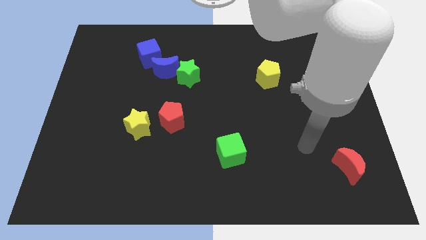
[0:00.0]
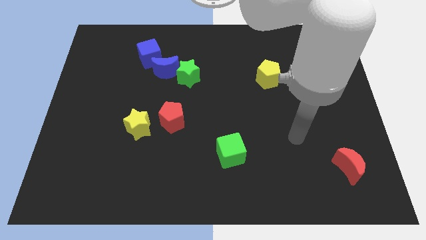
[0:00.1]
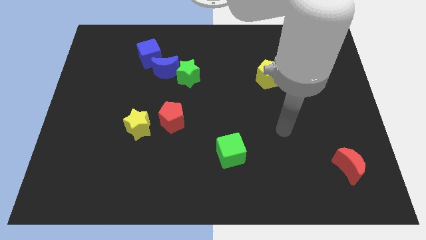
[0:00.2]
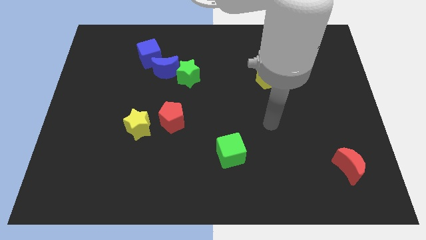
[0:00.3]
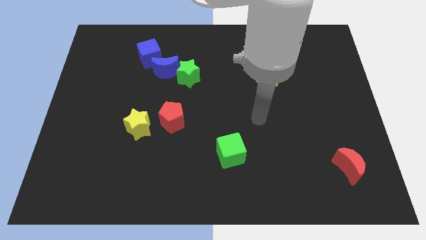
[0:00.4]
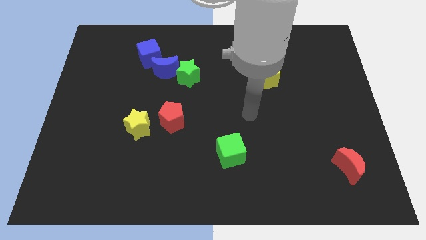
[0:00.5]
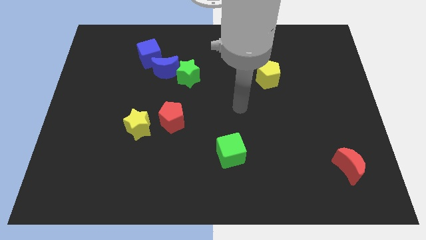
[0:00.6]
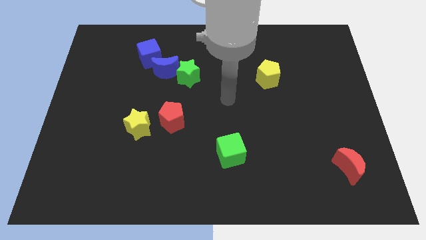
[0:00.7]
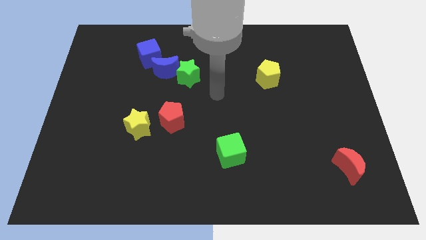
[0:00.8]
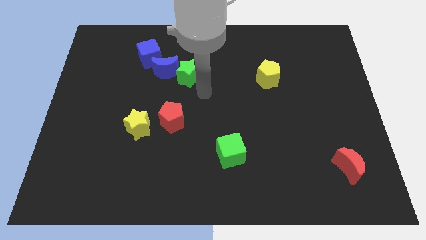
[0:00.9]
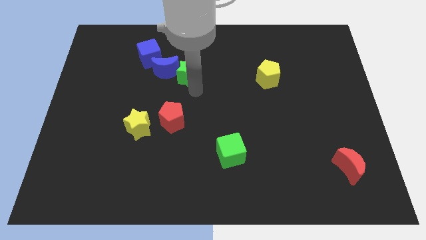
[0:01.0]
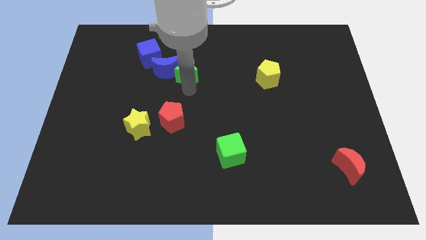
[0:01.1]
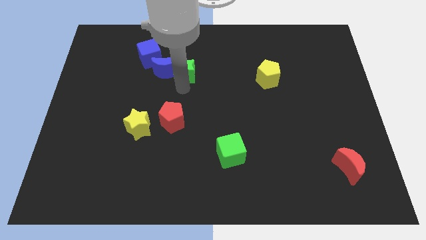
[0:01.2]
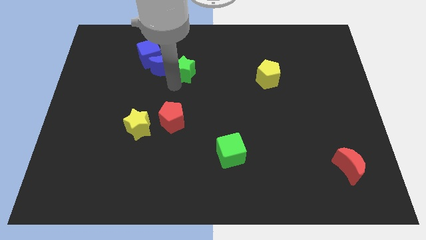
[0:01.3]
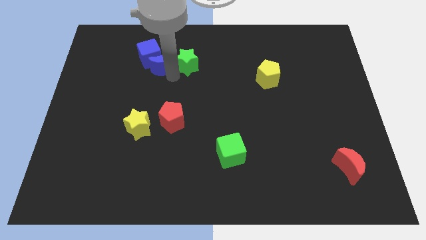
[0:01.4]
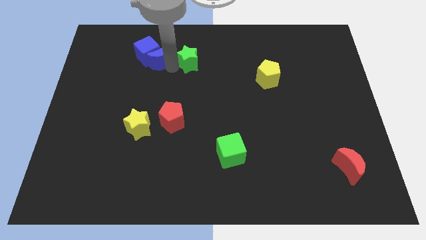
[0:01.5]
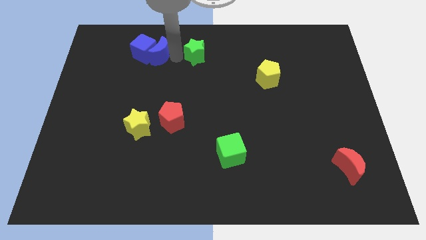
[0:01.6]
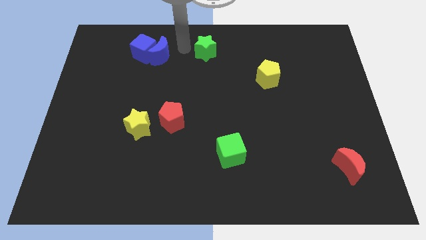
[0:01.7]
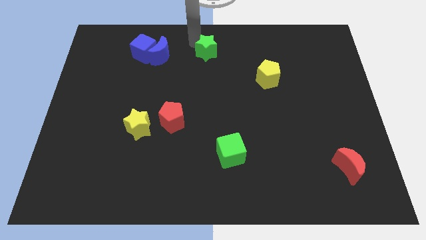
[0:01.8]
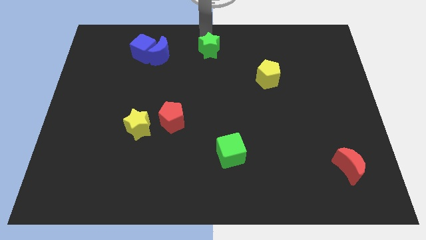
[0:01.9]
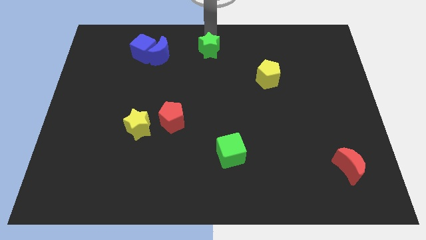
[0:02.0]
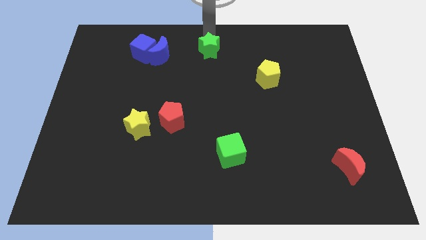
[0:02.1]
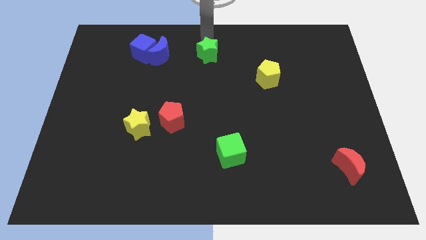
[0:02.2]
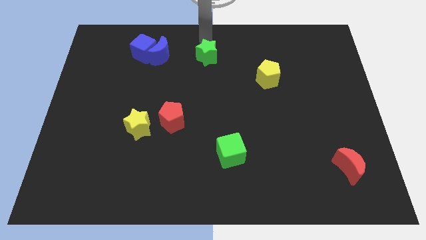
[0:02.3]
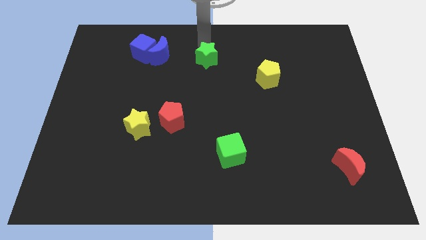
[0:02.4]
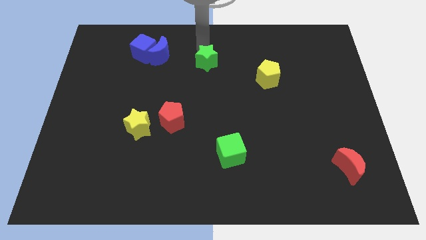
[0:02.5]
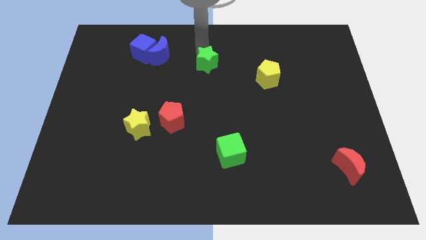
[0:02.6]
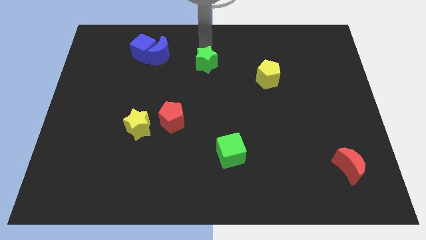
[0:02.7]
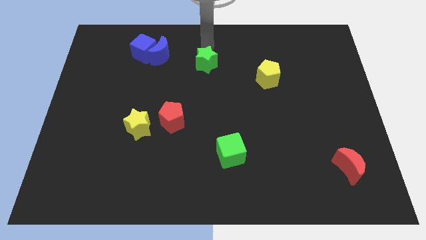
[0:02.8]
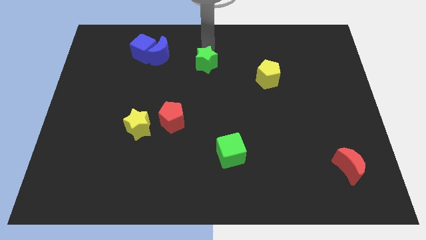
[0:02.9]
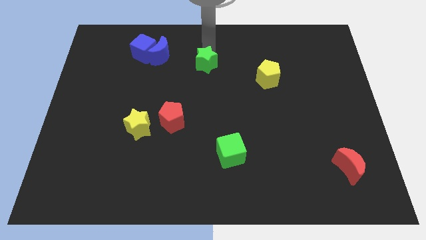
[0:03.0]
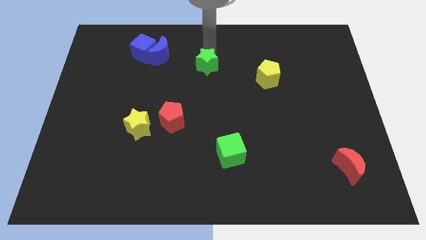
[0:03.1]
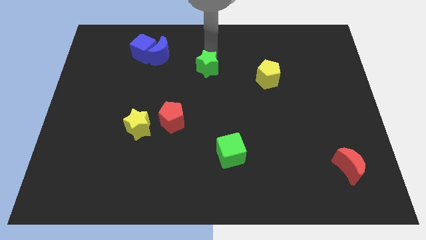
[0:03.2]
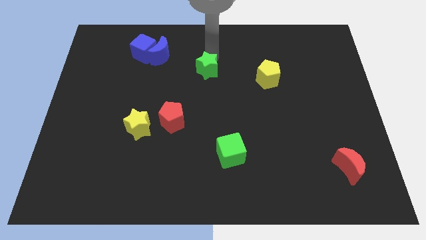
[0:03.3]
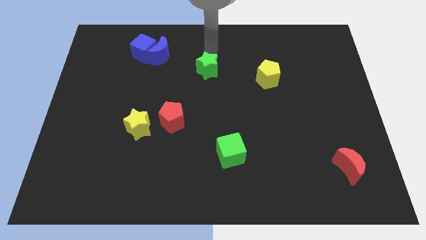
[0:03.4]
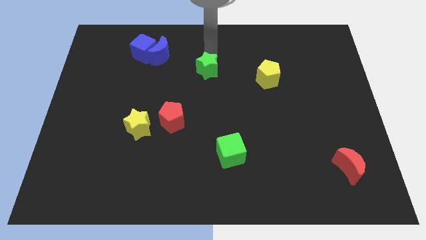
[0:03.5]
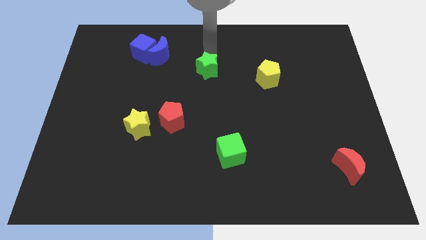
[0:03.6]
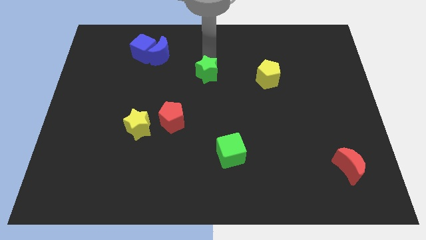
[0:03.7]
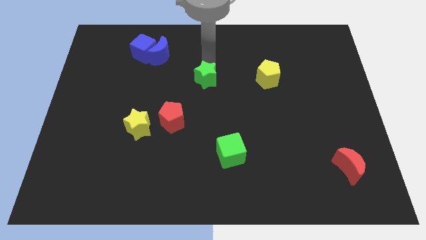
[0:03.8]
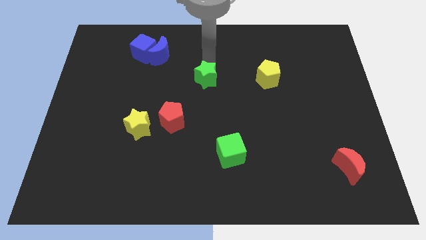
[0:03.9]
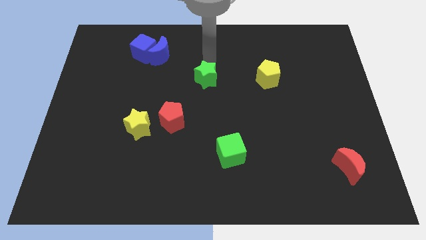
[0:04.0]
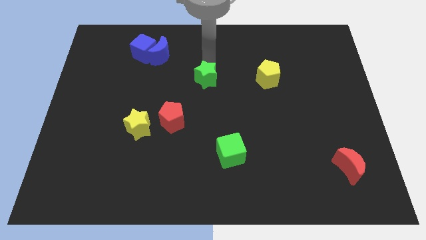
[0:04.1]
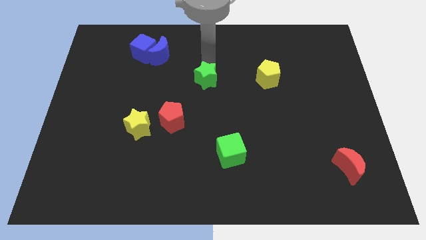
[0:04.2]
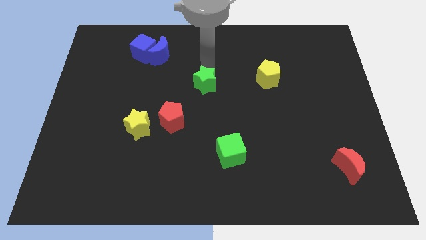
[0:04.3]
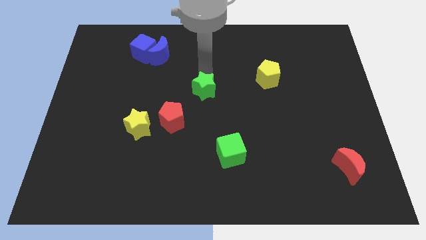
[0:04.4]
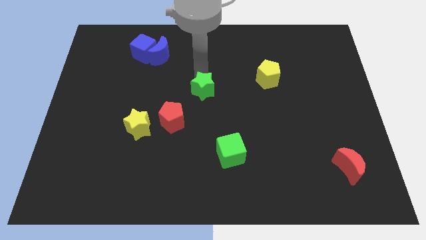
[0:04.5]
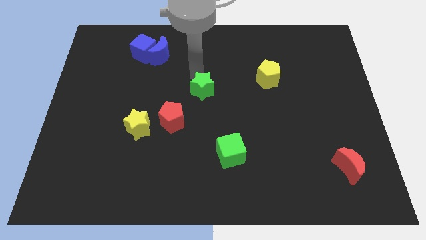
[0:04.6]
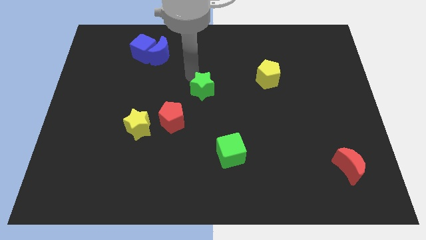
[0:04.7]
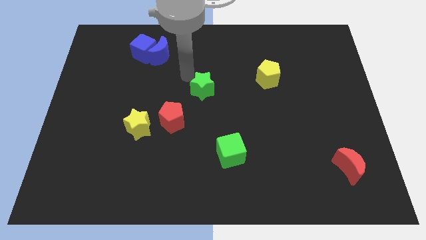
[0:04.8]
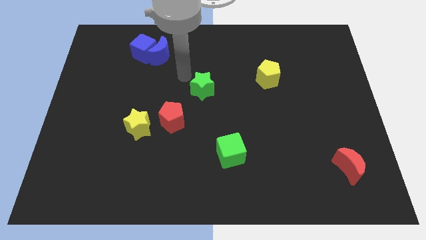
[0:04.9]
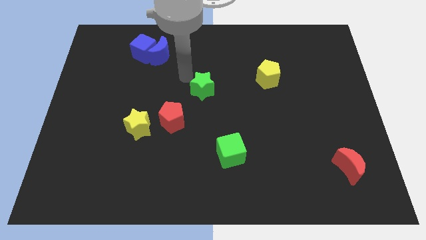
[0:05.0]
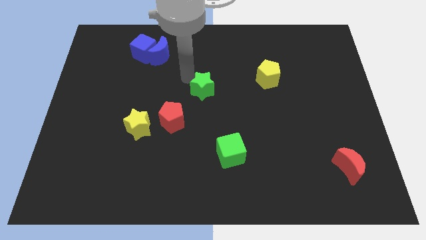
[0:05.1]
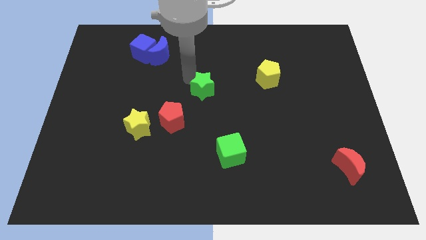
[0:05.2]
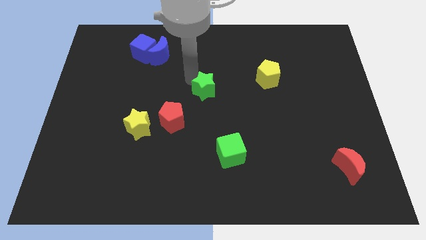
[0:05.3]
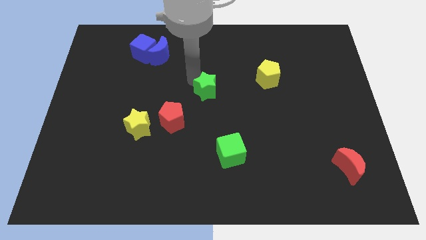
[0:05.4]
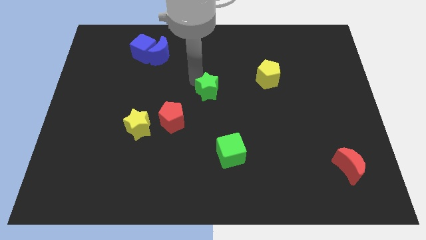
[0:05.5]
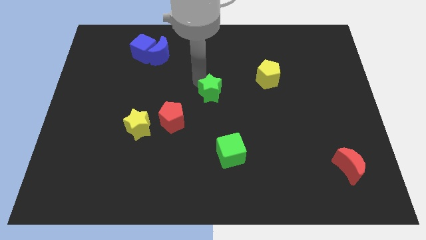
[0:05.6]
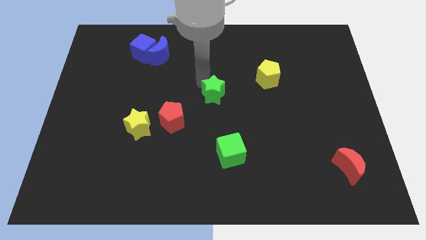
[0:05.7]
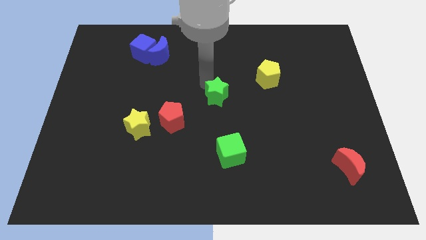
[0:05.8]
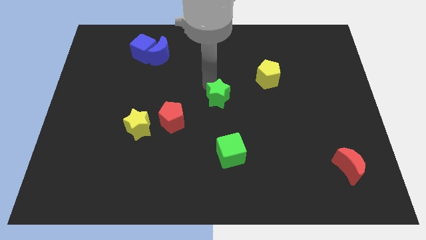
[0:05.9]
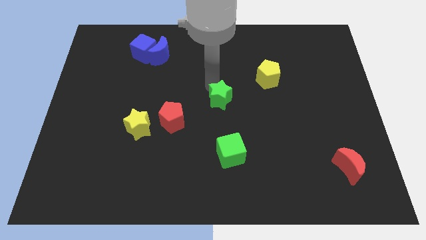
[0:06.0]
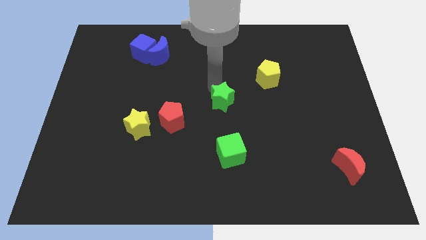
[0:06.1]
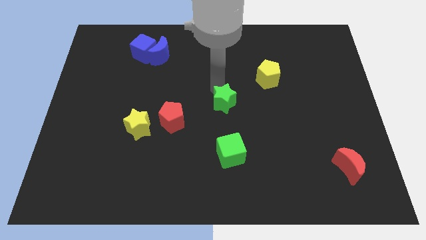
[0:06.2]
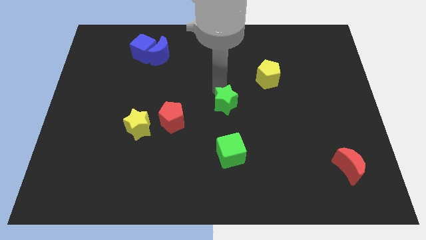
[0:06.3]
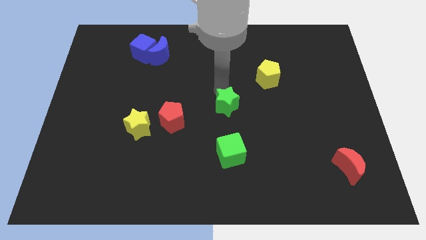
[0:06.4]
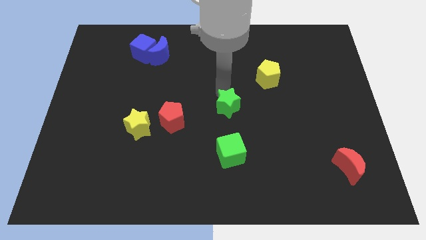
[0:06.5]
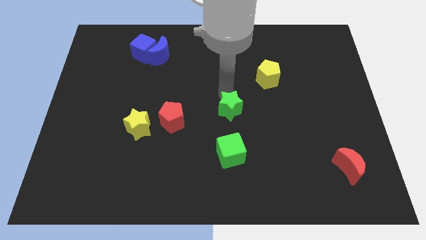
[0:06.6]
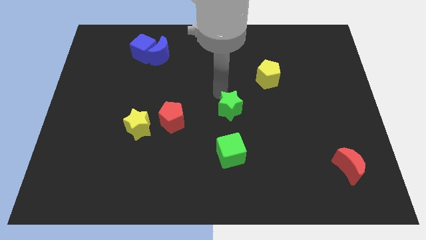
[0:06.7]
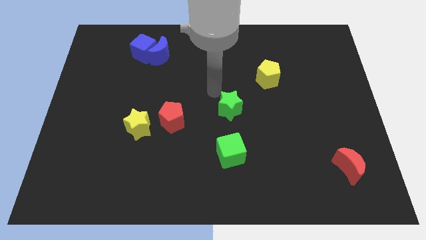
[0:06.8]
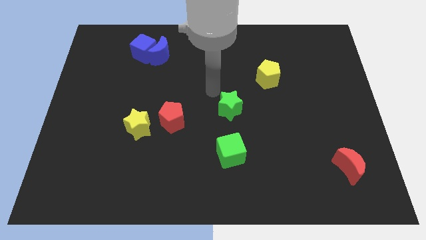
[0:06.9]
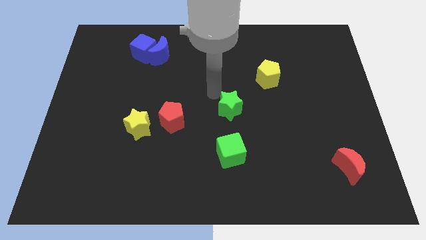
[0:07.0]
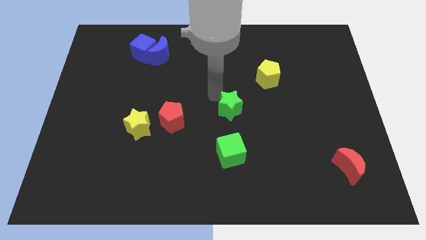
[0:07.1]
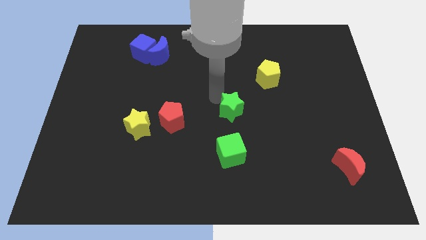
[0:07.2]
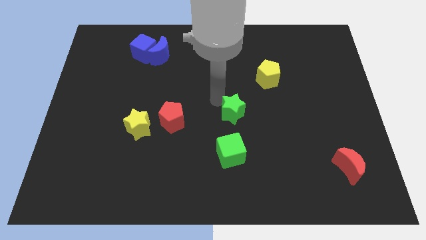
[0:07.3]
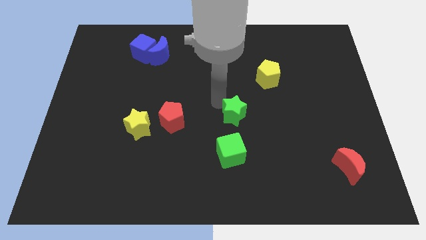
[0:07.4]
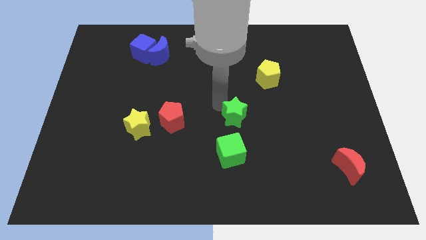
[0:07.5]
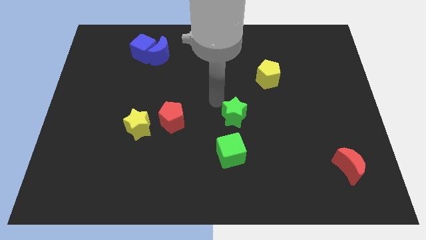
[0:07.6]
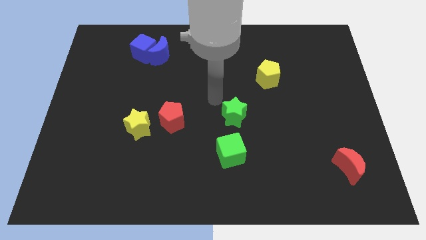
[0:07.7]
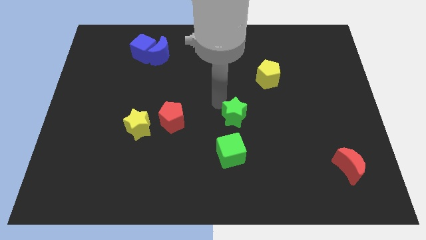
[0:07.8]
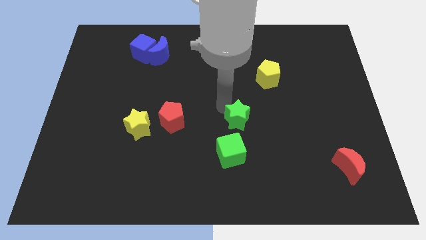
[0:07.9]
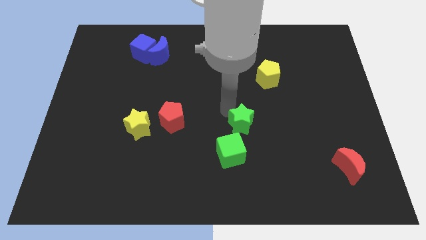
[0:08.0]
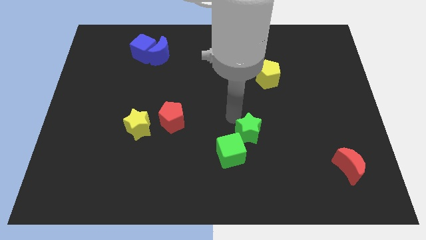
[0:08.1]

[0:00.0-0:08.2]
move the green star downwards and to the right
